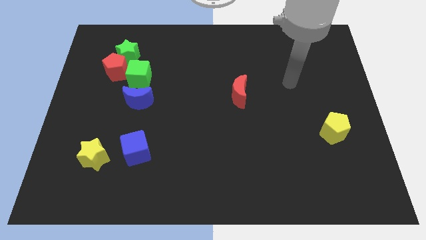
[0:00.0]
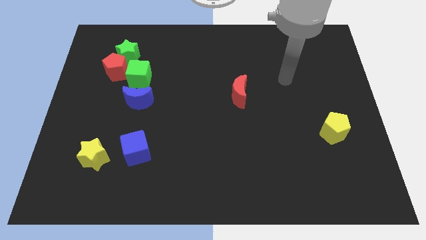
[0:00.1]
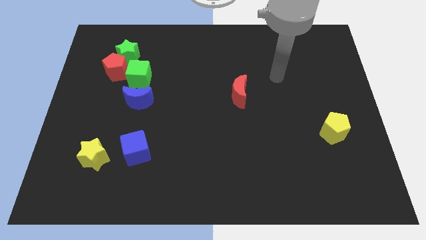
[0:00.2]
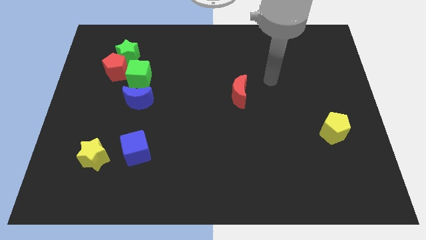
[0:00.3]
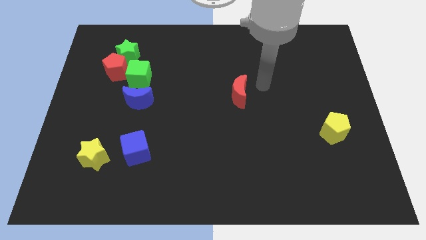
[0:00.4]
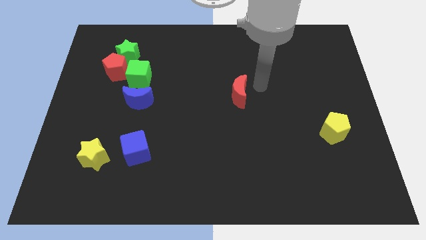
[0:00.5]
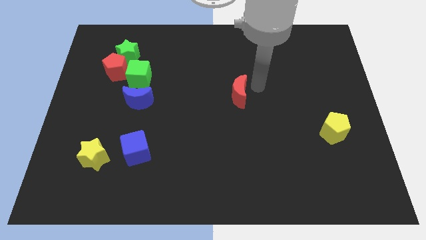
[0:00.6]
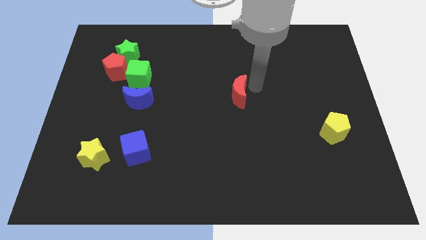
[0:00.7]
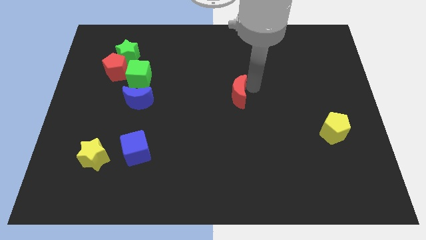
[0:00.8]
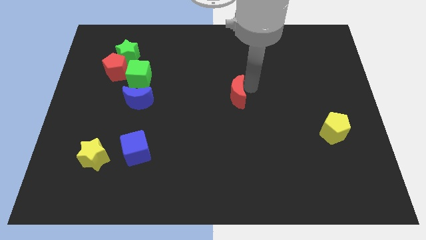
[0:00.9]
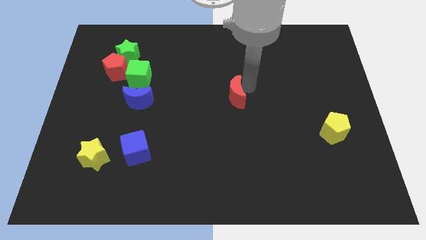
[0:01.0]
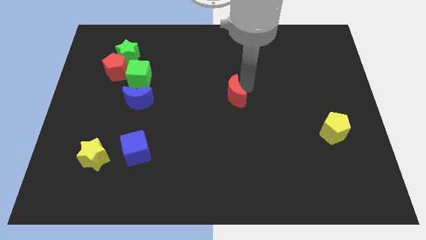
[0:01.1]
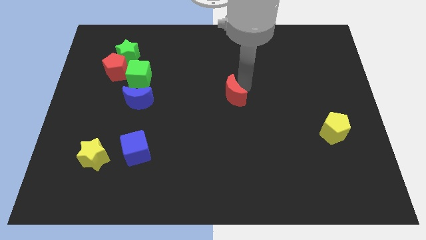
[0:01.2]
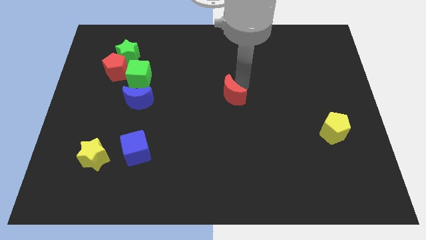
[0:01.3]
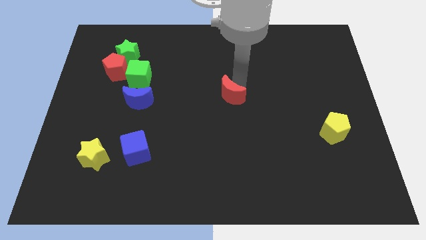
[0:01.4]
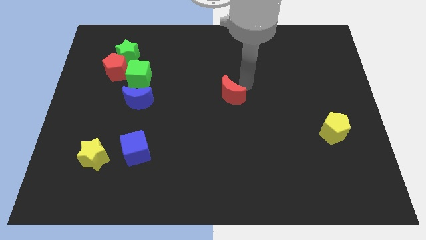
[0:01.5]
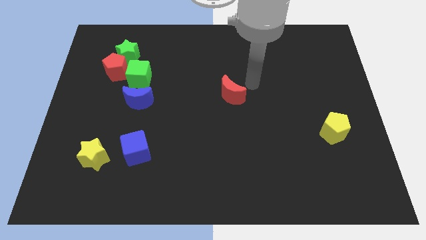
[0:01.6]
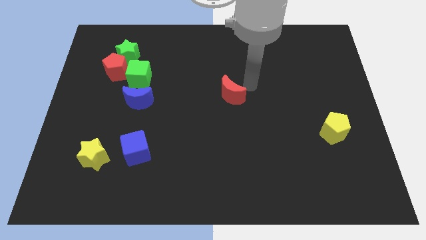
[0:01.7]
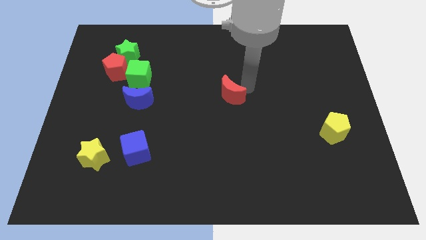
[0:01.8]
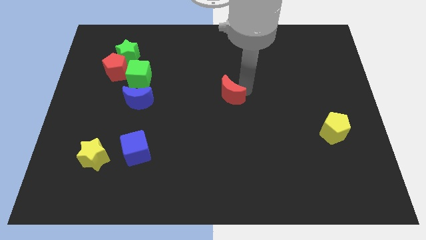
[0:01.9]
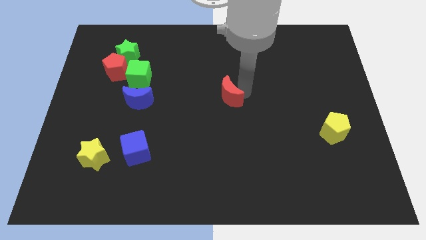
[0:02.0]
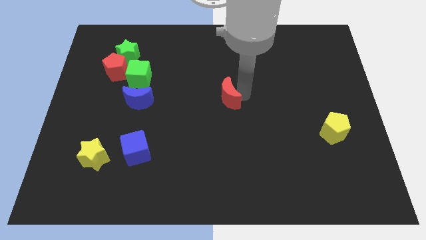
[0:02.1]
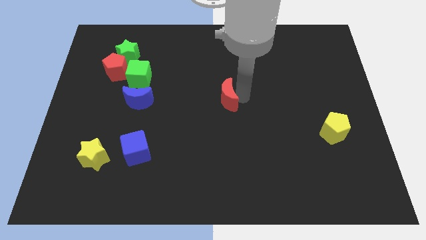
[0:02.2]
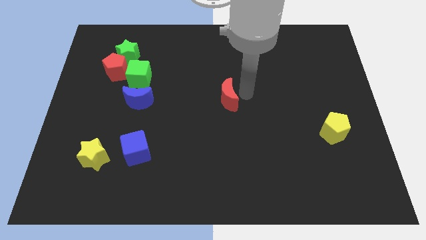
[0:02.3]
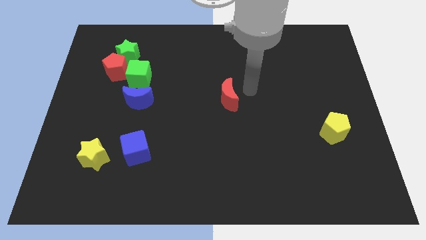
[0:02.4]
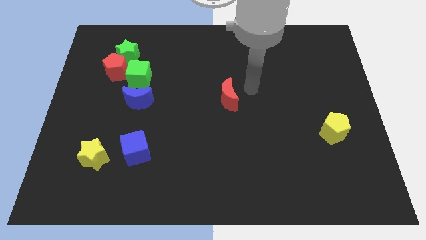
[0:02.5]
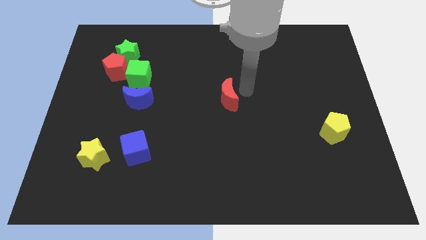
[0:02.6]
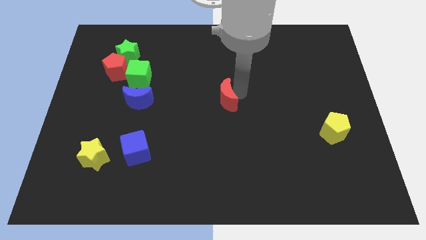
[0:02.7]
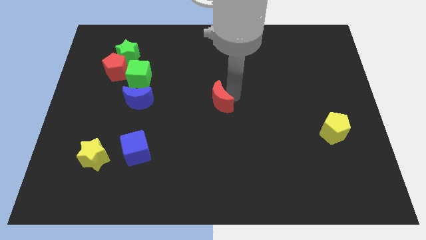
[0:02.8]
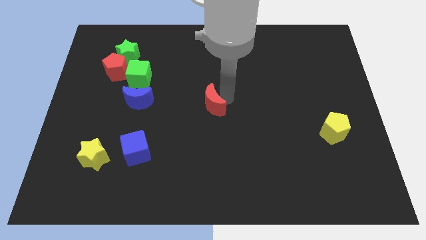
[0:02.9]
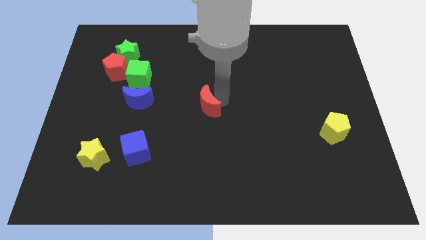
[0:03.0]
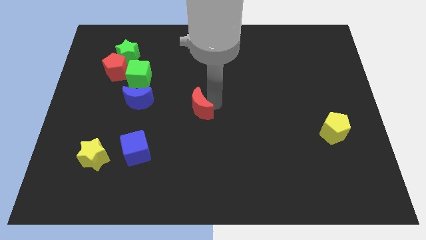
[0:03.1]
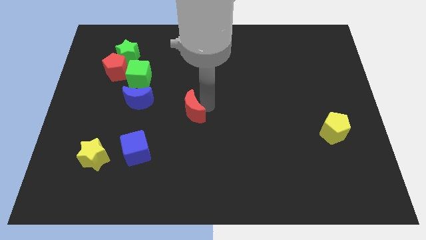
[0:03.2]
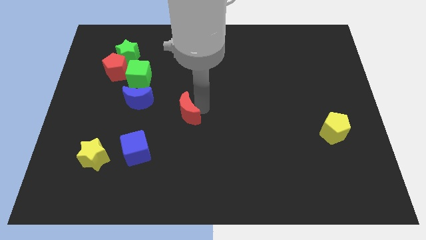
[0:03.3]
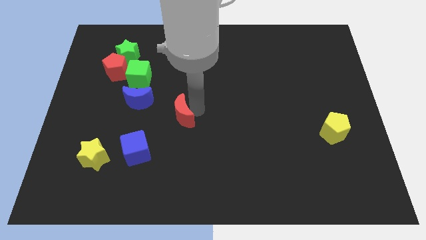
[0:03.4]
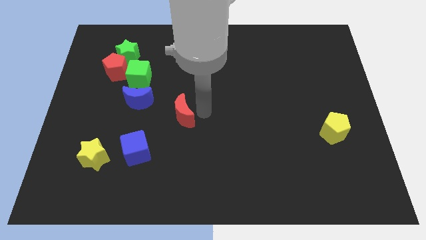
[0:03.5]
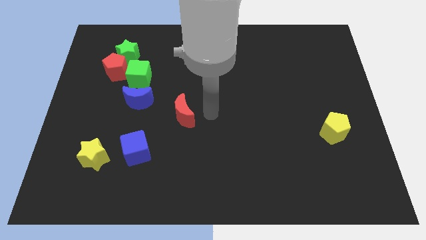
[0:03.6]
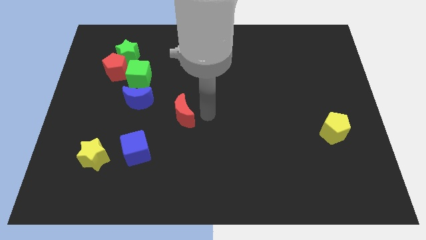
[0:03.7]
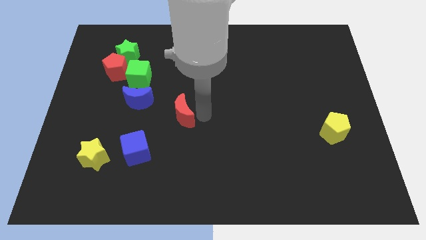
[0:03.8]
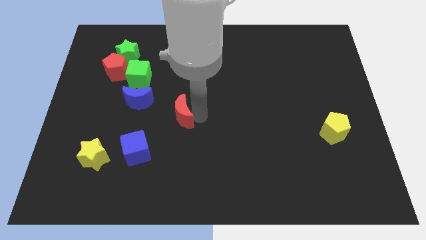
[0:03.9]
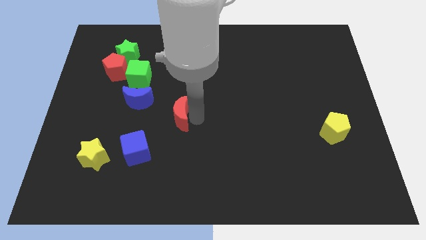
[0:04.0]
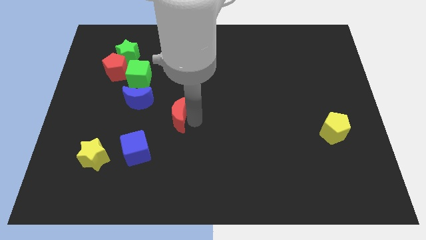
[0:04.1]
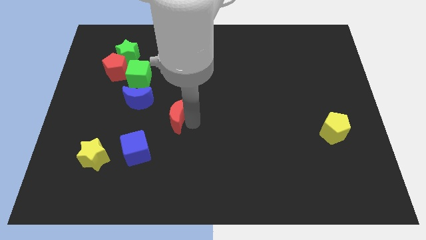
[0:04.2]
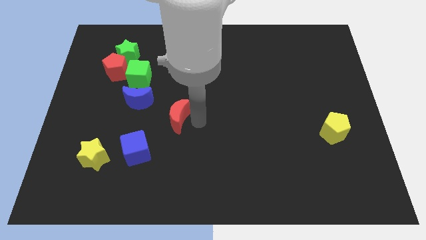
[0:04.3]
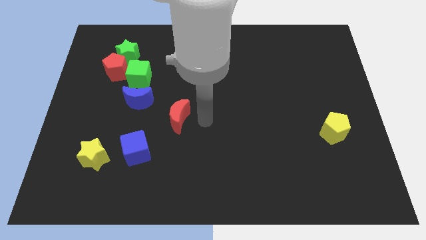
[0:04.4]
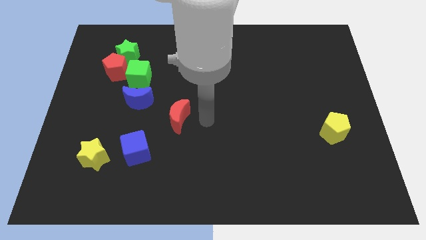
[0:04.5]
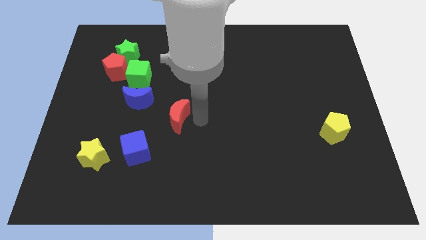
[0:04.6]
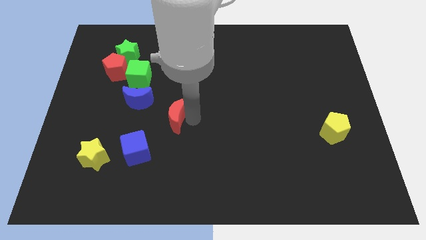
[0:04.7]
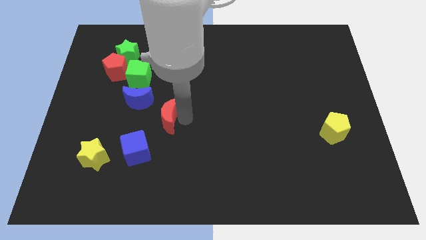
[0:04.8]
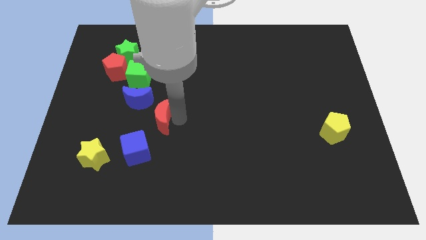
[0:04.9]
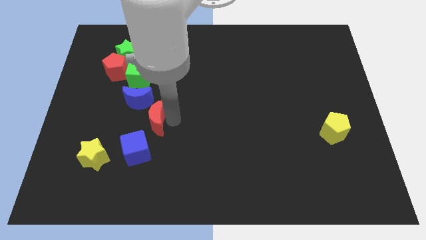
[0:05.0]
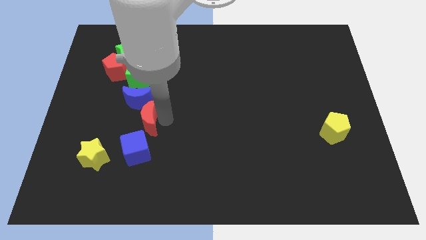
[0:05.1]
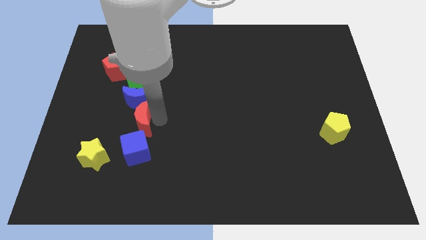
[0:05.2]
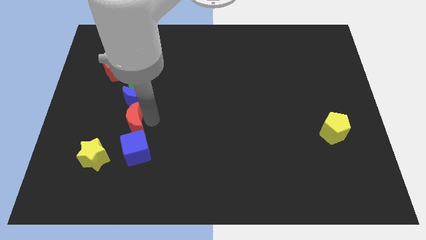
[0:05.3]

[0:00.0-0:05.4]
put the red moon to the top left of the blue cube

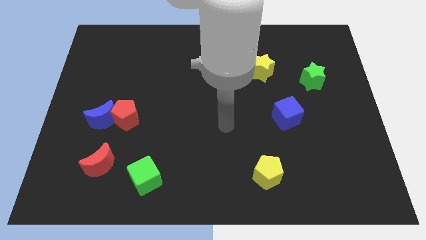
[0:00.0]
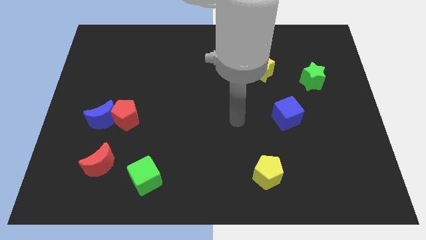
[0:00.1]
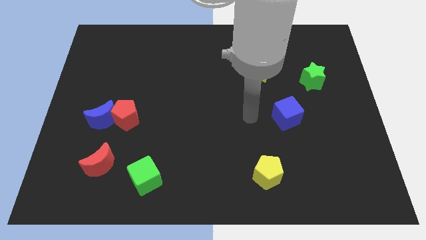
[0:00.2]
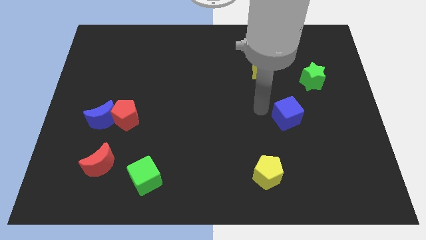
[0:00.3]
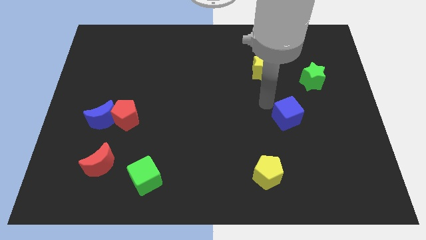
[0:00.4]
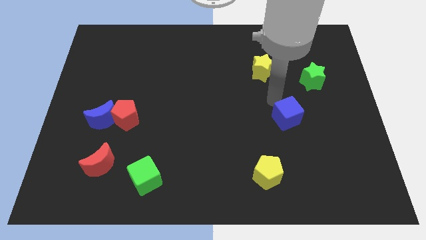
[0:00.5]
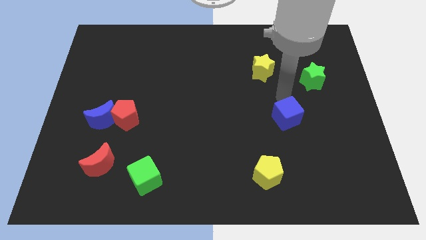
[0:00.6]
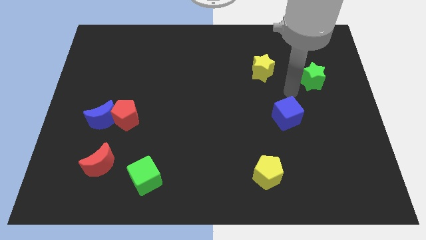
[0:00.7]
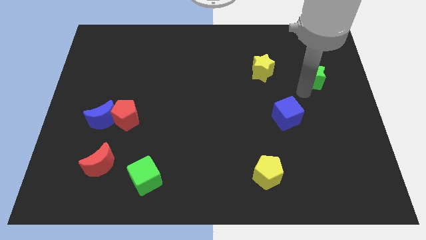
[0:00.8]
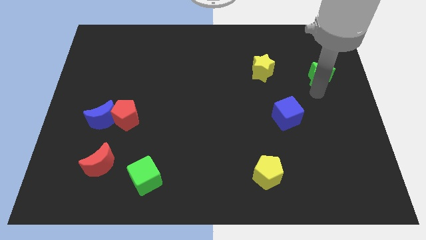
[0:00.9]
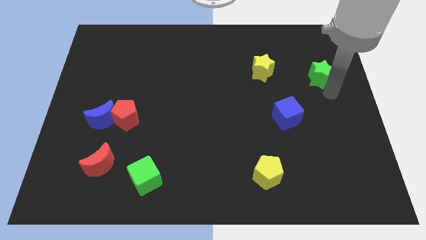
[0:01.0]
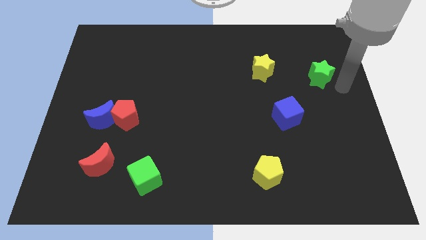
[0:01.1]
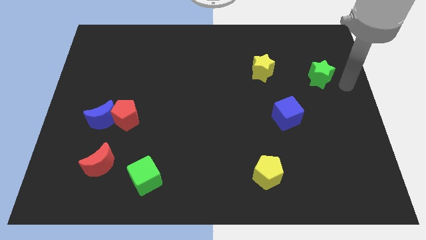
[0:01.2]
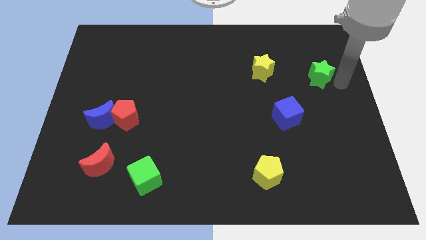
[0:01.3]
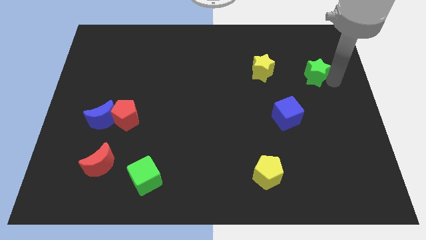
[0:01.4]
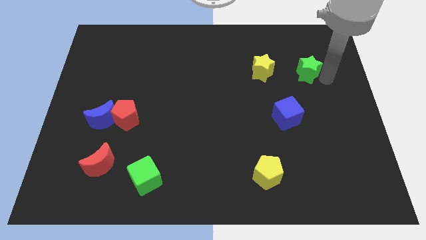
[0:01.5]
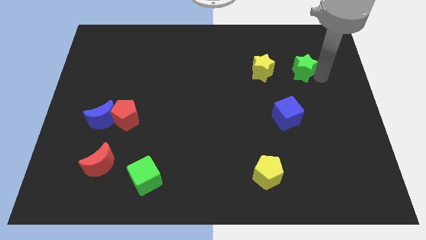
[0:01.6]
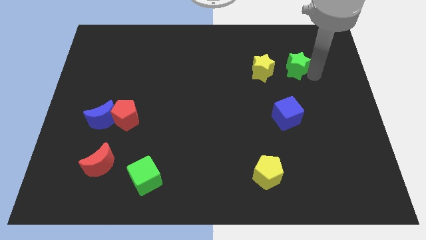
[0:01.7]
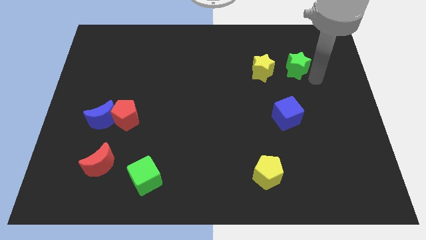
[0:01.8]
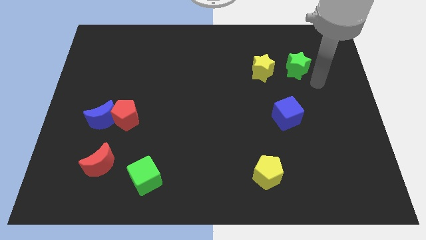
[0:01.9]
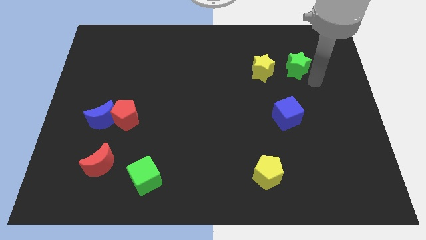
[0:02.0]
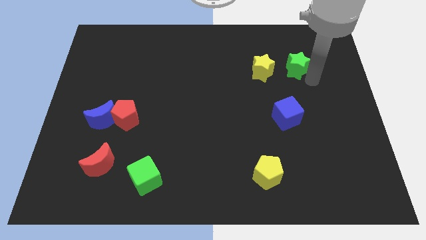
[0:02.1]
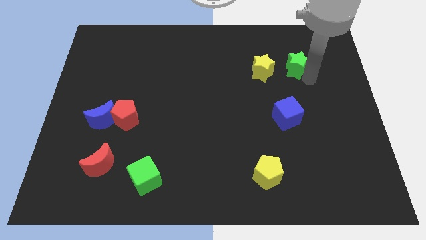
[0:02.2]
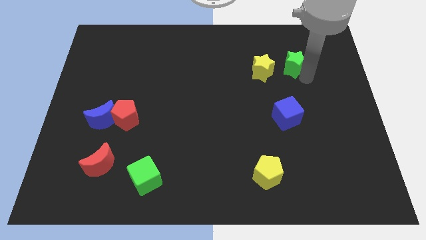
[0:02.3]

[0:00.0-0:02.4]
put the green star to the top right of the yellow star
